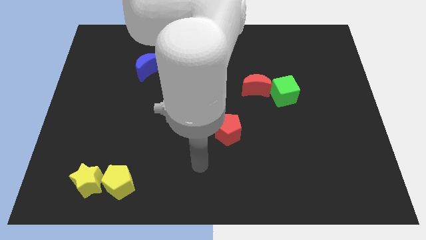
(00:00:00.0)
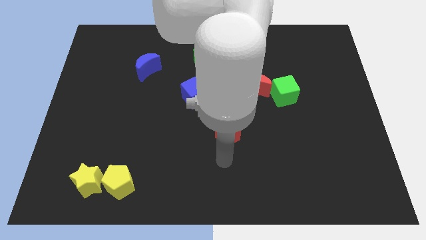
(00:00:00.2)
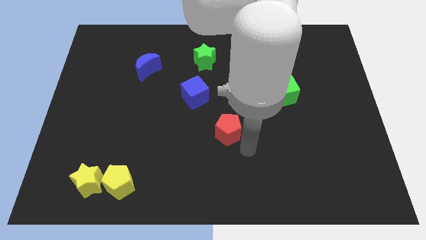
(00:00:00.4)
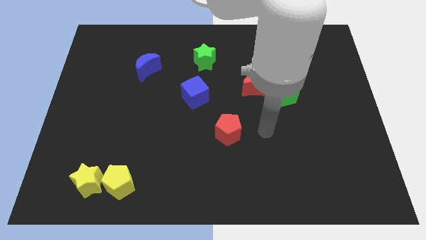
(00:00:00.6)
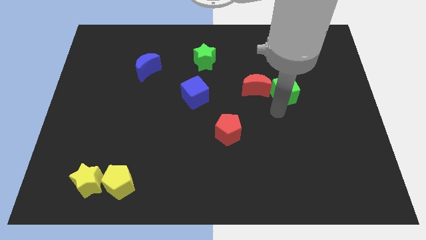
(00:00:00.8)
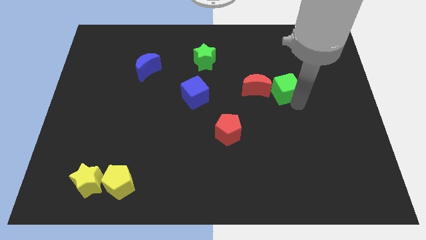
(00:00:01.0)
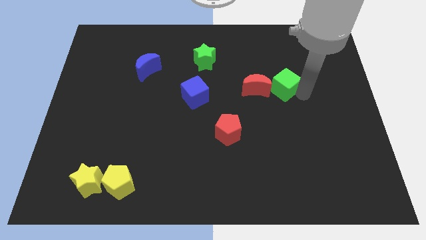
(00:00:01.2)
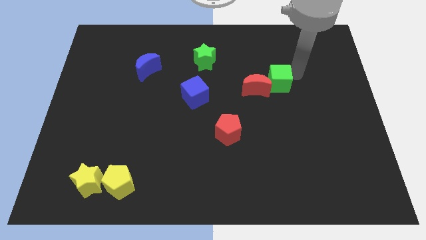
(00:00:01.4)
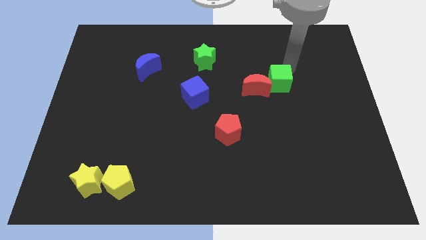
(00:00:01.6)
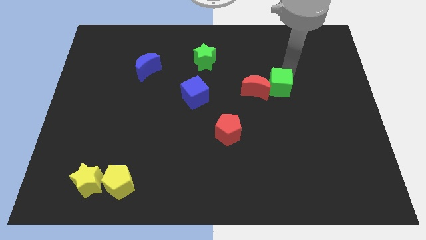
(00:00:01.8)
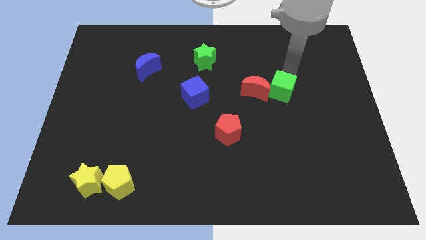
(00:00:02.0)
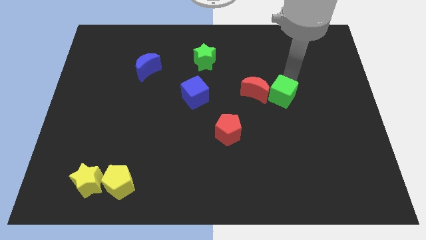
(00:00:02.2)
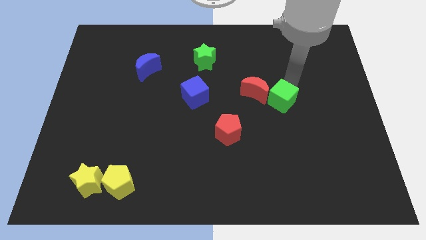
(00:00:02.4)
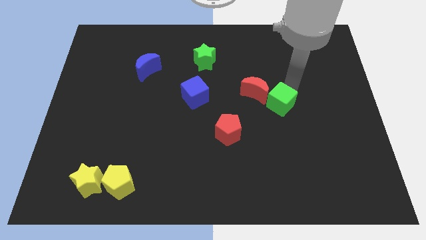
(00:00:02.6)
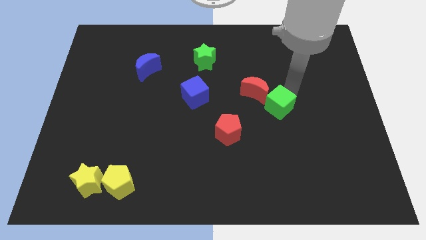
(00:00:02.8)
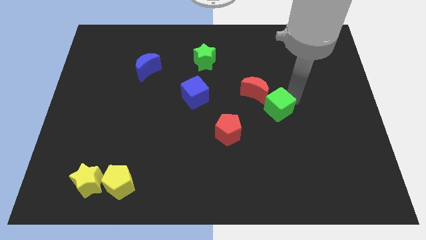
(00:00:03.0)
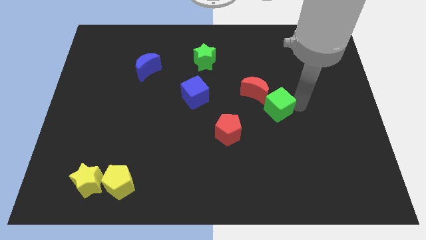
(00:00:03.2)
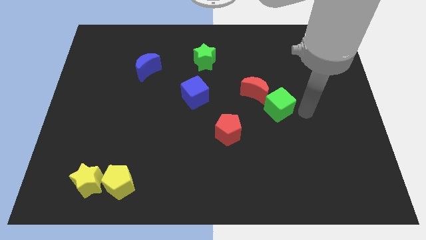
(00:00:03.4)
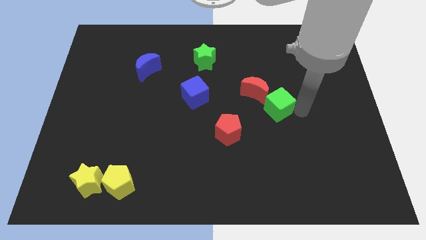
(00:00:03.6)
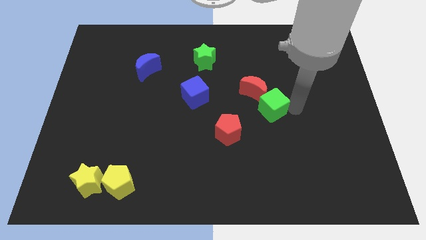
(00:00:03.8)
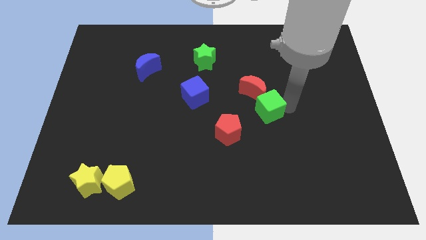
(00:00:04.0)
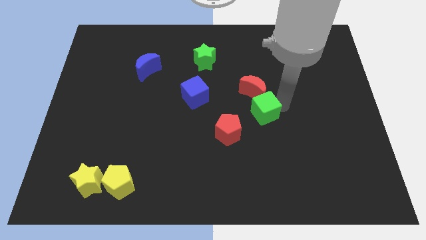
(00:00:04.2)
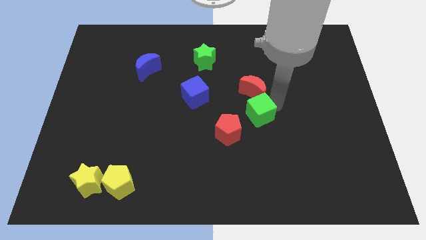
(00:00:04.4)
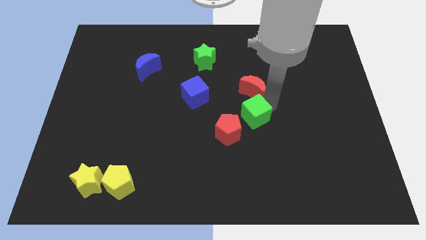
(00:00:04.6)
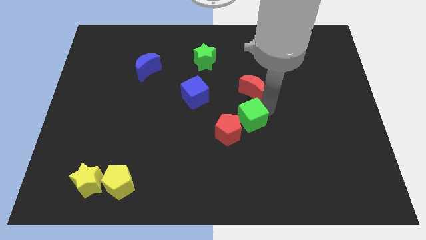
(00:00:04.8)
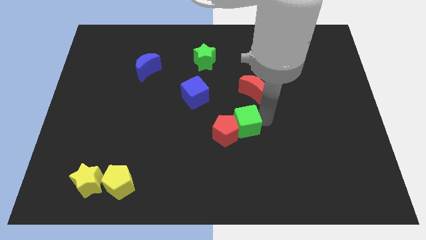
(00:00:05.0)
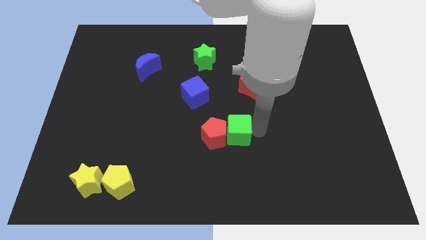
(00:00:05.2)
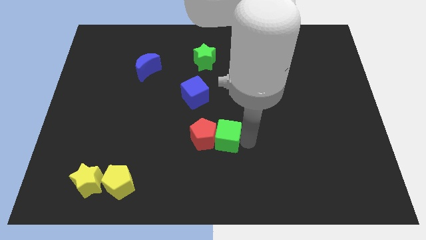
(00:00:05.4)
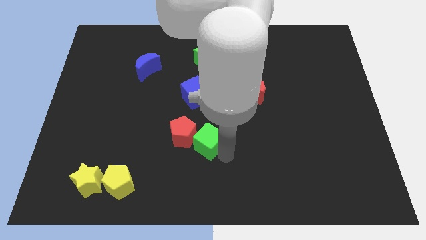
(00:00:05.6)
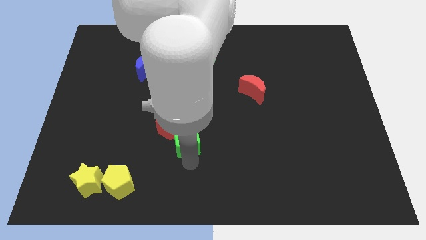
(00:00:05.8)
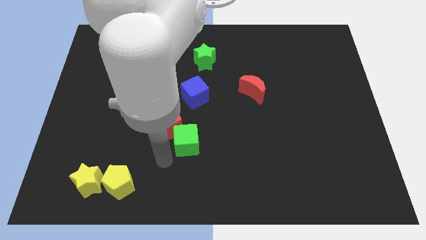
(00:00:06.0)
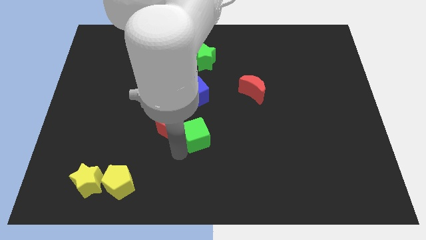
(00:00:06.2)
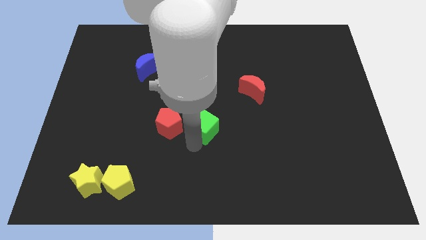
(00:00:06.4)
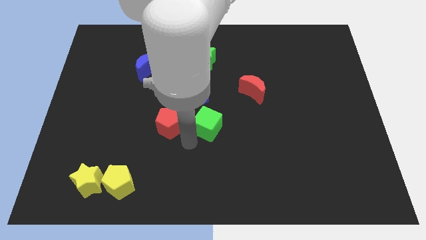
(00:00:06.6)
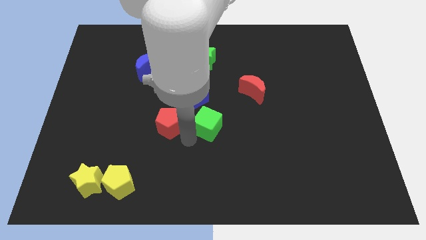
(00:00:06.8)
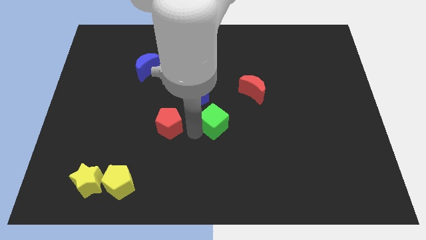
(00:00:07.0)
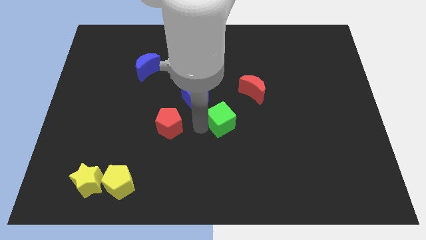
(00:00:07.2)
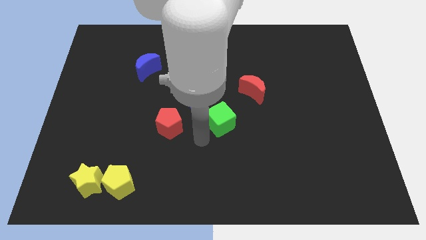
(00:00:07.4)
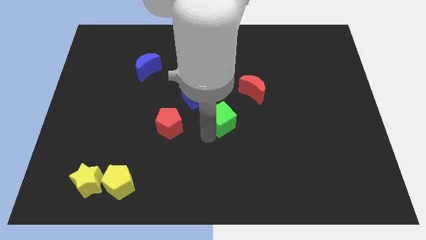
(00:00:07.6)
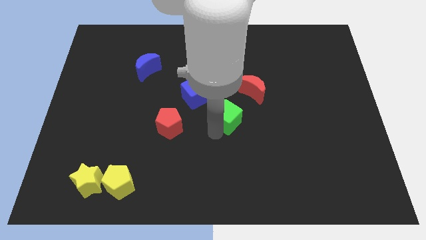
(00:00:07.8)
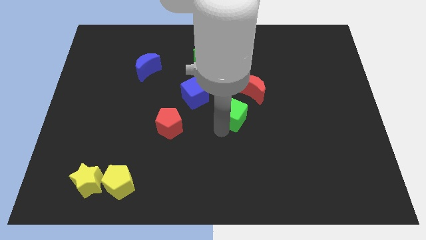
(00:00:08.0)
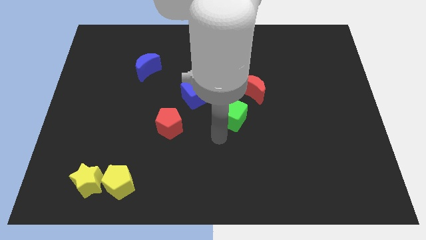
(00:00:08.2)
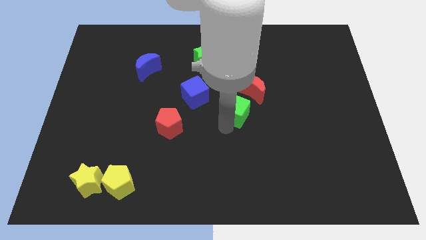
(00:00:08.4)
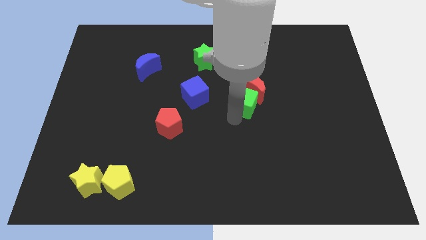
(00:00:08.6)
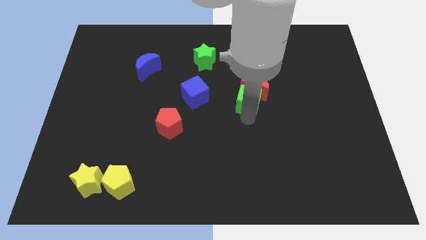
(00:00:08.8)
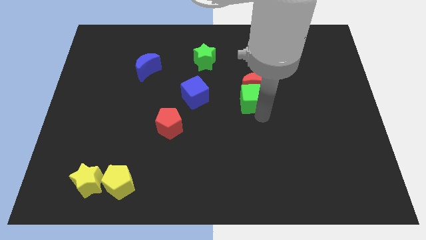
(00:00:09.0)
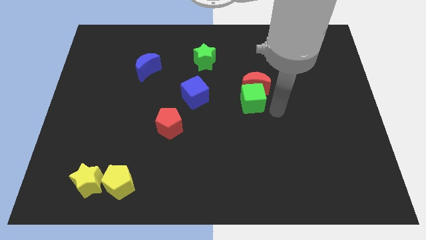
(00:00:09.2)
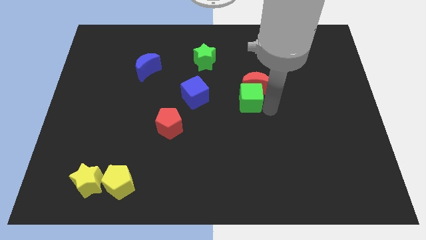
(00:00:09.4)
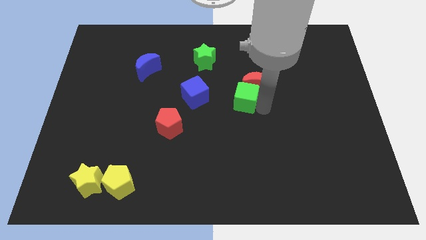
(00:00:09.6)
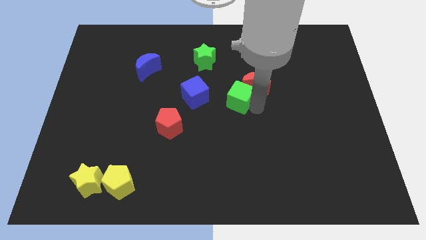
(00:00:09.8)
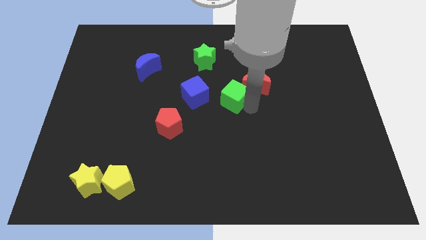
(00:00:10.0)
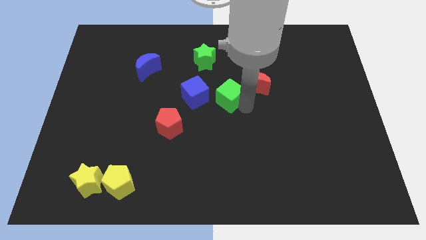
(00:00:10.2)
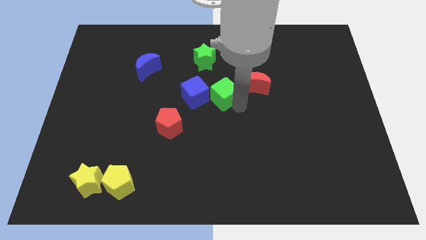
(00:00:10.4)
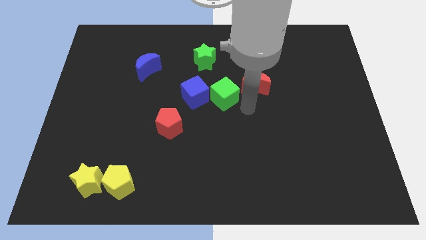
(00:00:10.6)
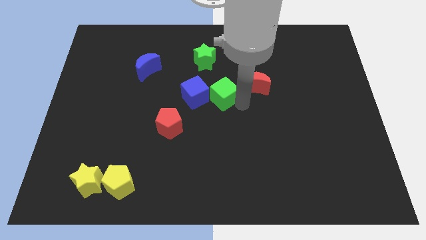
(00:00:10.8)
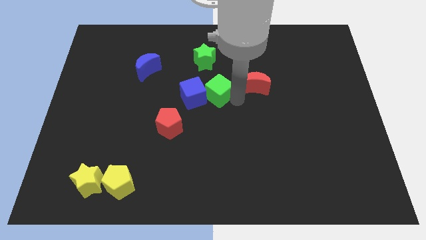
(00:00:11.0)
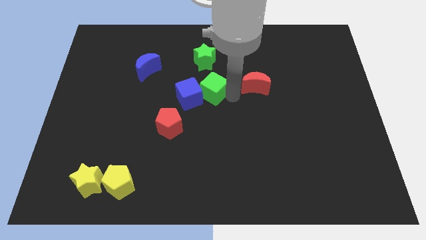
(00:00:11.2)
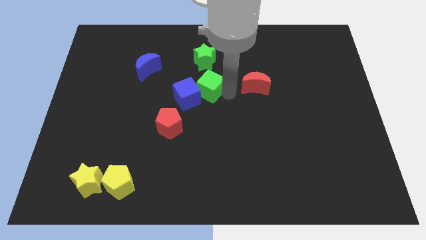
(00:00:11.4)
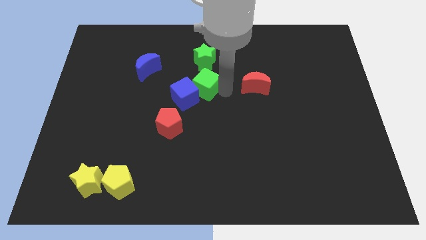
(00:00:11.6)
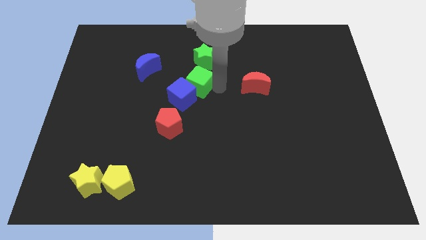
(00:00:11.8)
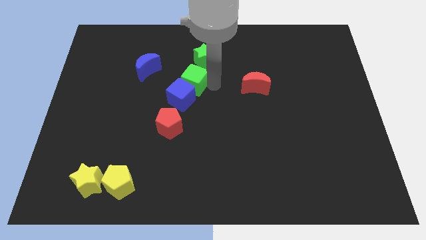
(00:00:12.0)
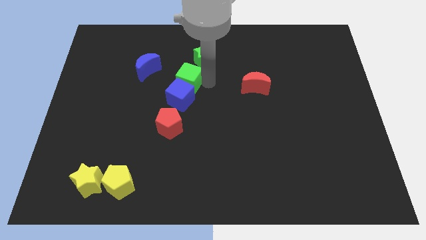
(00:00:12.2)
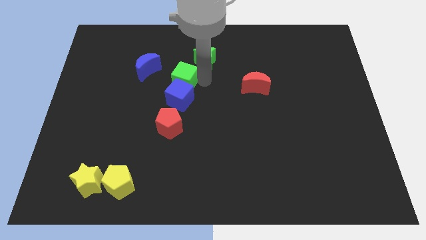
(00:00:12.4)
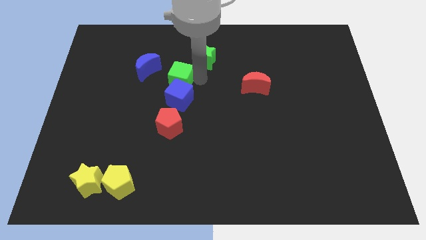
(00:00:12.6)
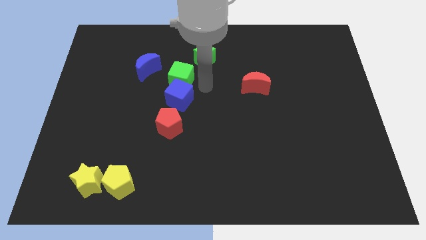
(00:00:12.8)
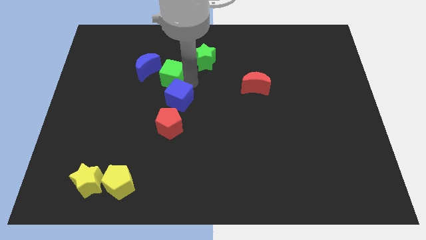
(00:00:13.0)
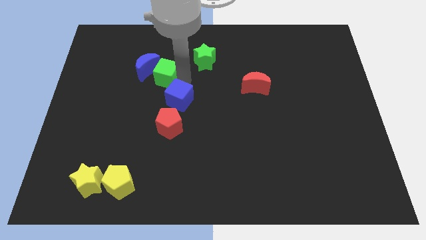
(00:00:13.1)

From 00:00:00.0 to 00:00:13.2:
put the green cube towards the blue moon

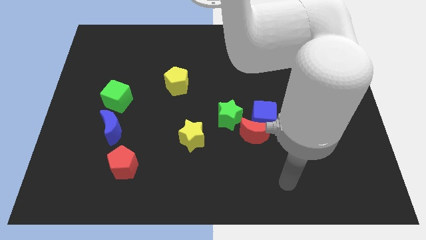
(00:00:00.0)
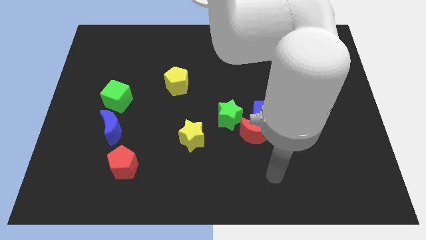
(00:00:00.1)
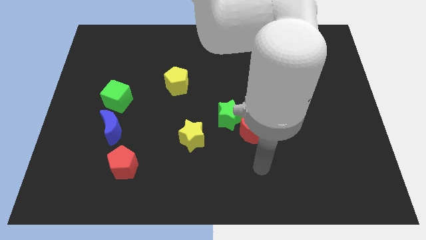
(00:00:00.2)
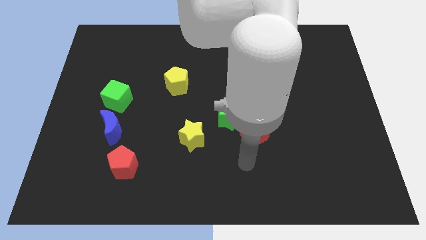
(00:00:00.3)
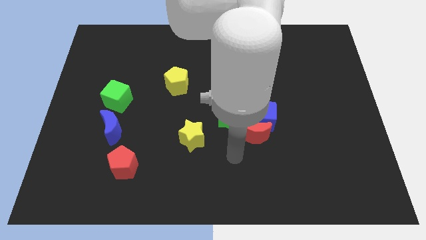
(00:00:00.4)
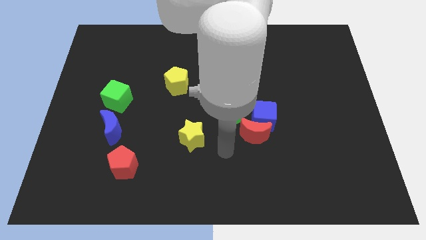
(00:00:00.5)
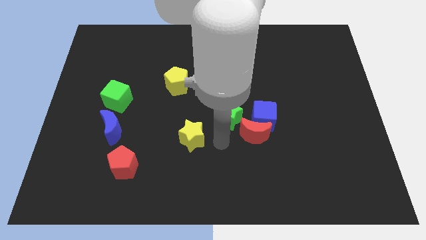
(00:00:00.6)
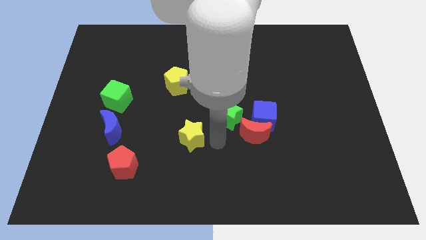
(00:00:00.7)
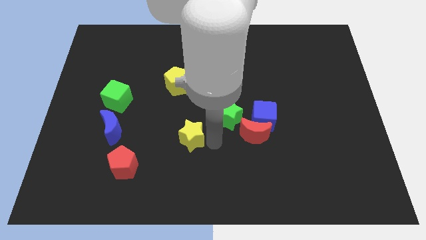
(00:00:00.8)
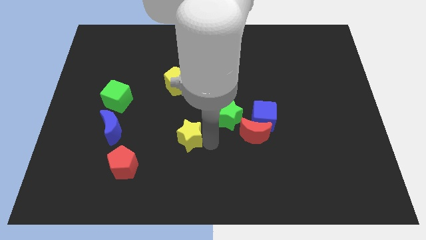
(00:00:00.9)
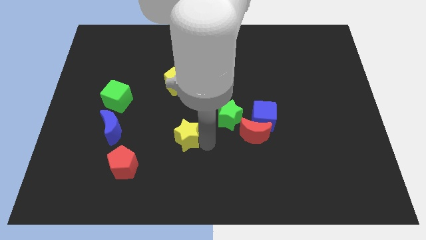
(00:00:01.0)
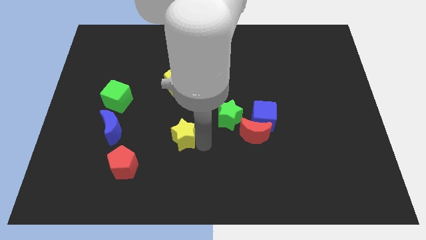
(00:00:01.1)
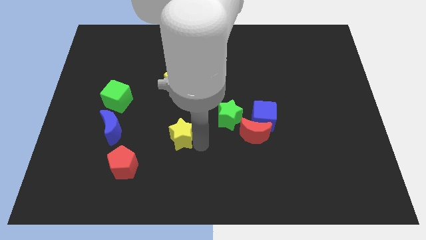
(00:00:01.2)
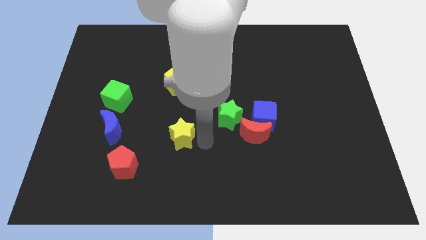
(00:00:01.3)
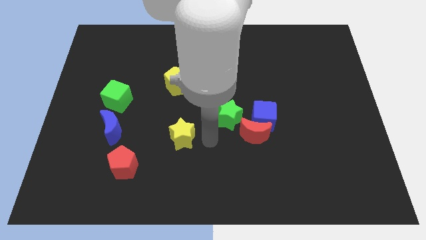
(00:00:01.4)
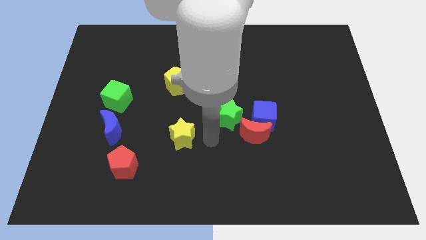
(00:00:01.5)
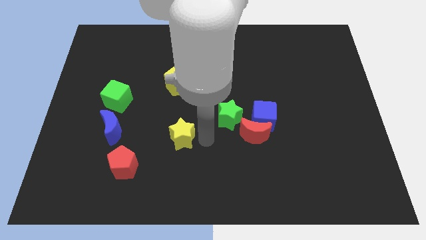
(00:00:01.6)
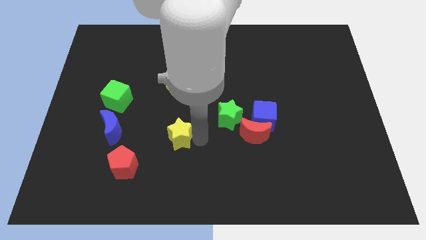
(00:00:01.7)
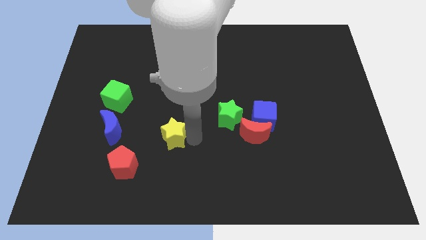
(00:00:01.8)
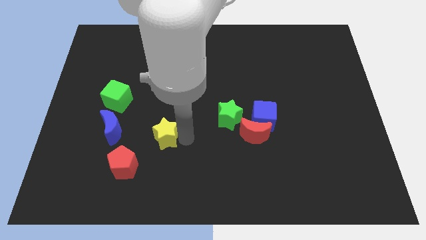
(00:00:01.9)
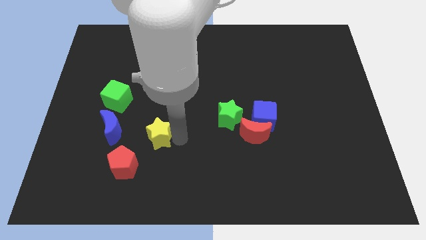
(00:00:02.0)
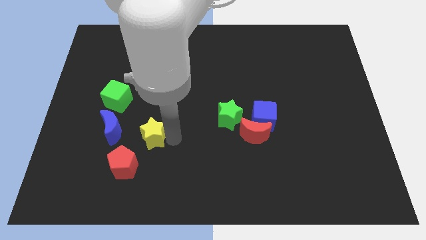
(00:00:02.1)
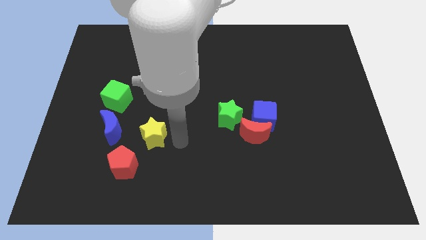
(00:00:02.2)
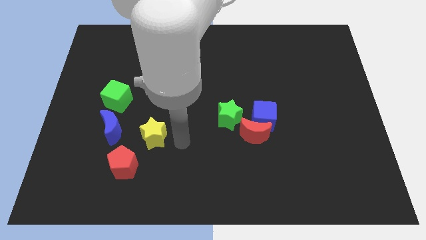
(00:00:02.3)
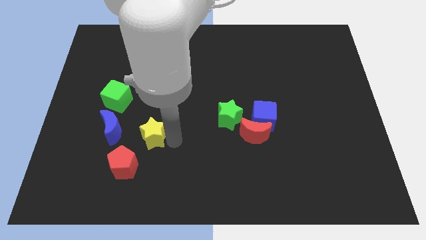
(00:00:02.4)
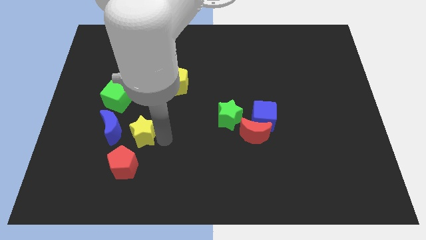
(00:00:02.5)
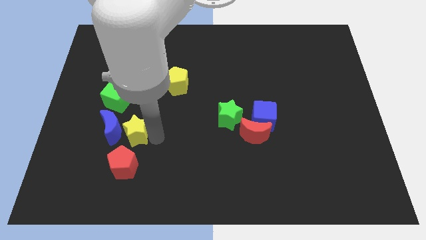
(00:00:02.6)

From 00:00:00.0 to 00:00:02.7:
push the yellow star next to the blue moon
